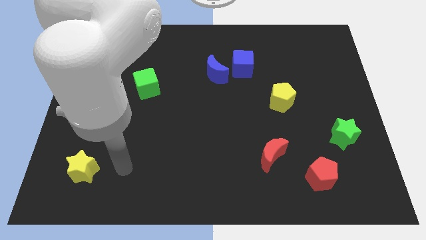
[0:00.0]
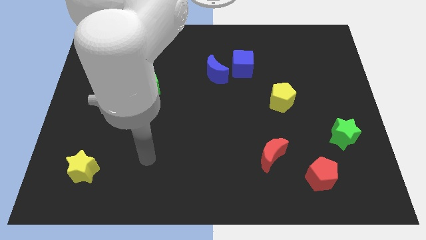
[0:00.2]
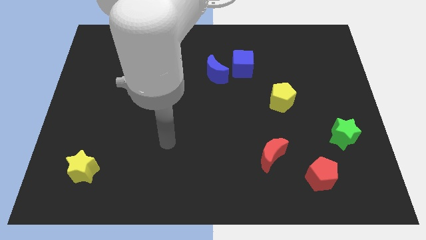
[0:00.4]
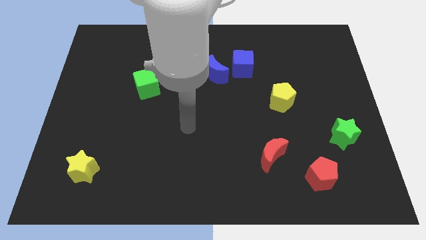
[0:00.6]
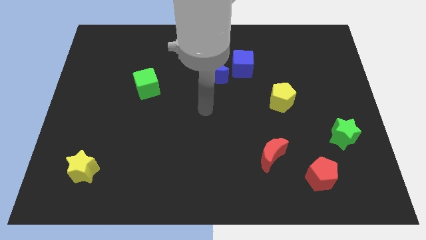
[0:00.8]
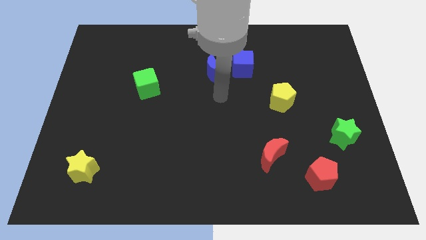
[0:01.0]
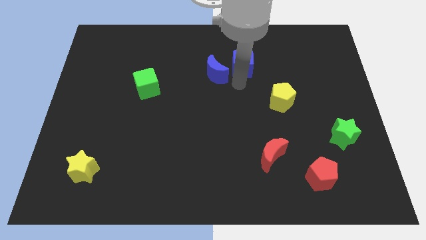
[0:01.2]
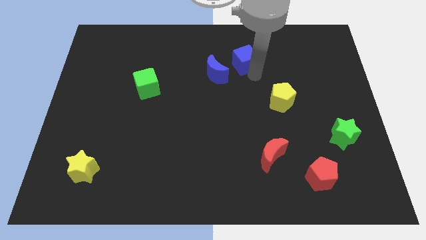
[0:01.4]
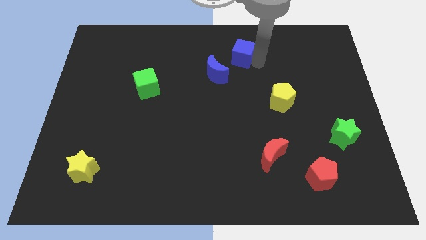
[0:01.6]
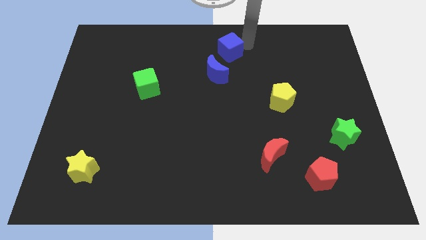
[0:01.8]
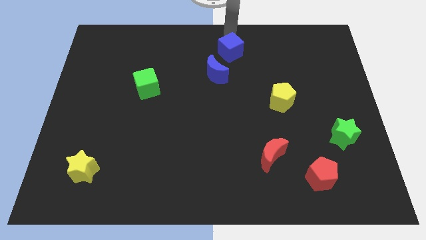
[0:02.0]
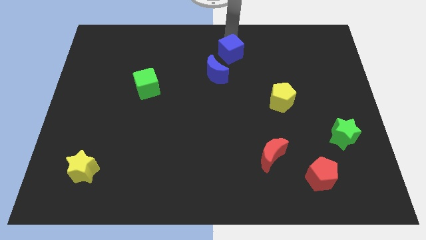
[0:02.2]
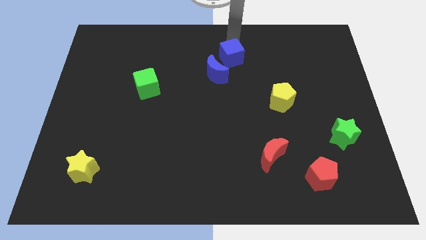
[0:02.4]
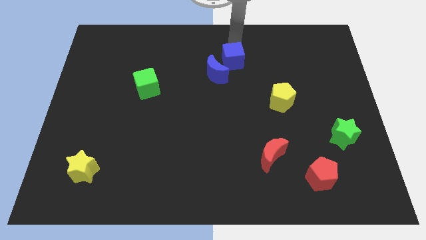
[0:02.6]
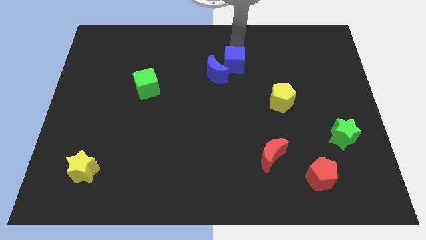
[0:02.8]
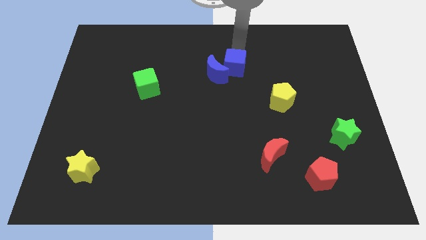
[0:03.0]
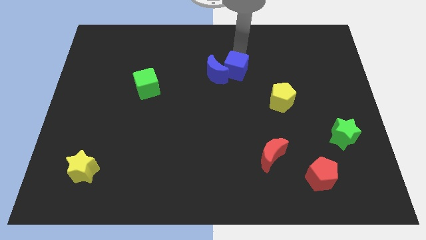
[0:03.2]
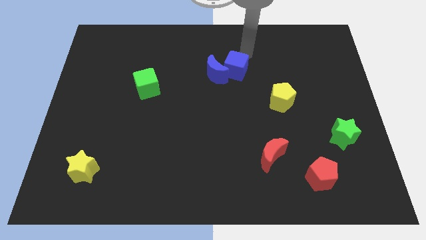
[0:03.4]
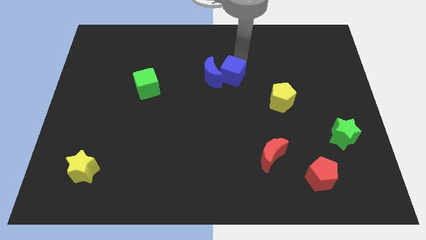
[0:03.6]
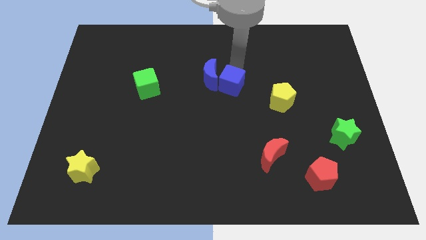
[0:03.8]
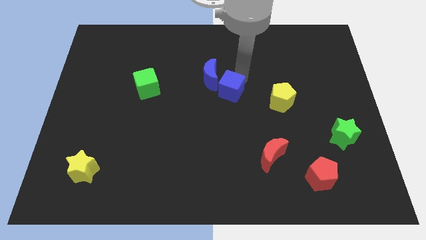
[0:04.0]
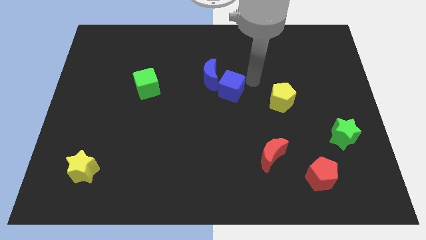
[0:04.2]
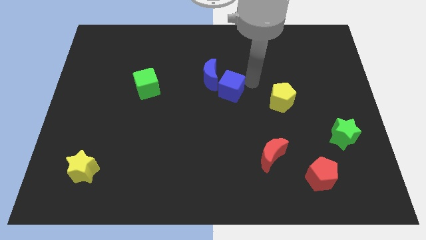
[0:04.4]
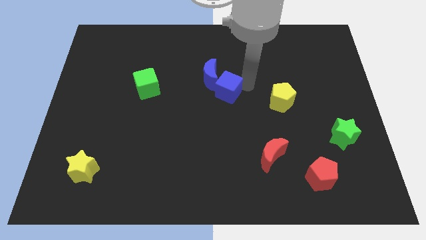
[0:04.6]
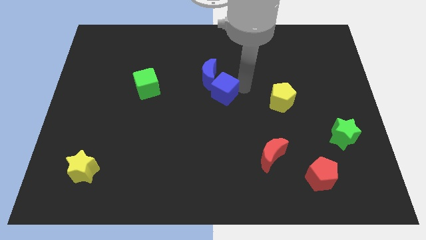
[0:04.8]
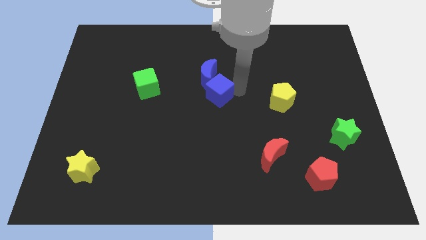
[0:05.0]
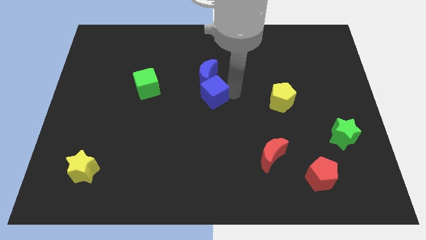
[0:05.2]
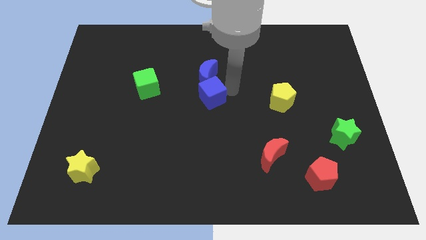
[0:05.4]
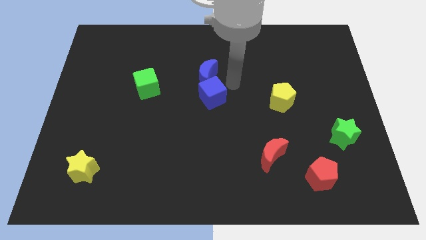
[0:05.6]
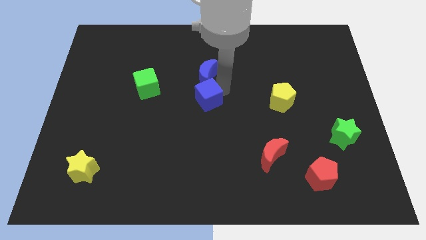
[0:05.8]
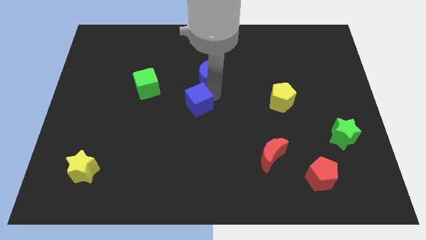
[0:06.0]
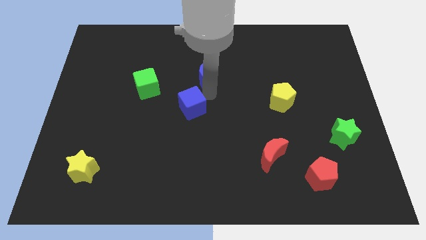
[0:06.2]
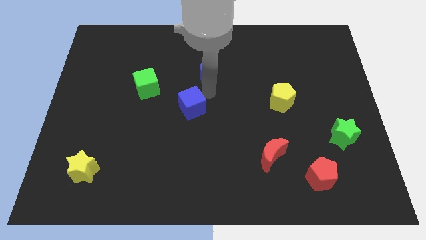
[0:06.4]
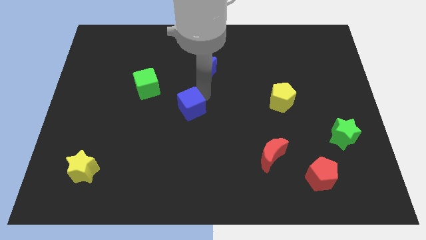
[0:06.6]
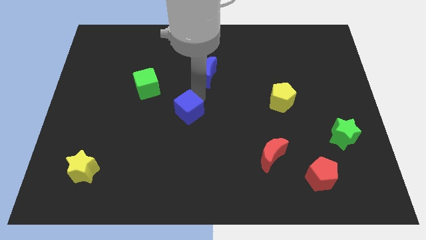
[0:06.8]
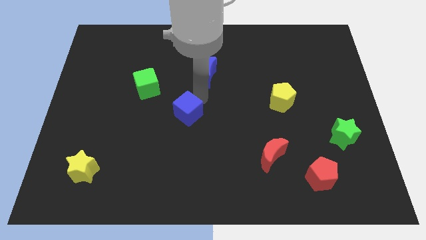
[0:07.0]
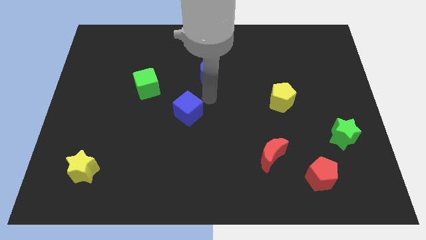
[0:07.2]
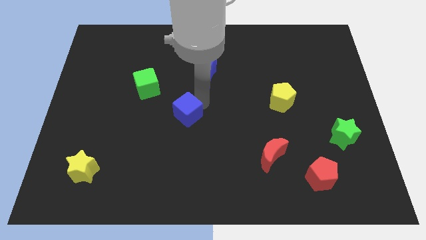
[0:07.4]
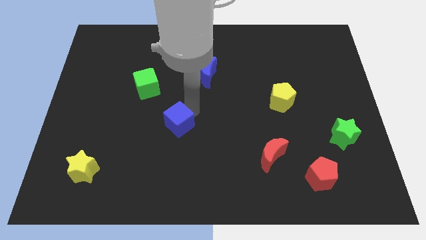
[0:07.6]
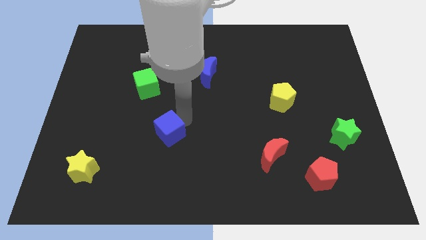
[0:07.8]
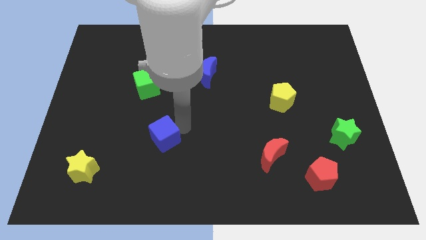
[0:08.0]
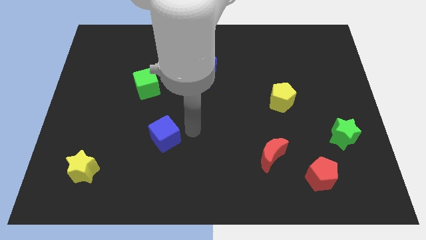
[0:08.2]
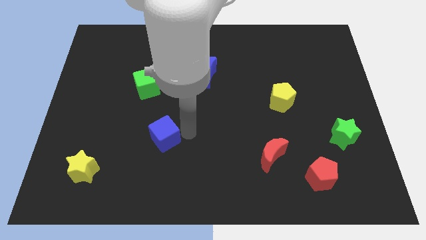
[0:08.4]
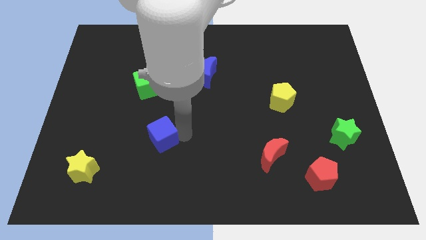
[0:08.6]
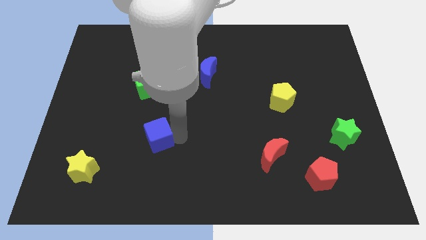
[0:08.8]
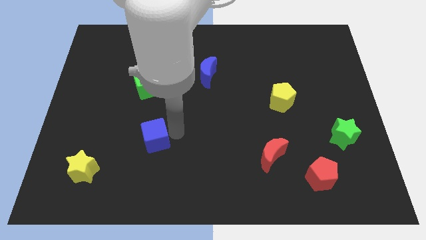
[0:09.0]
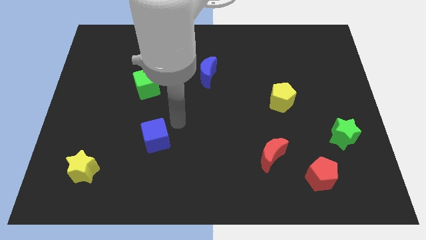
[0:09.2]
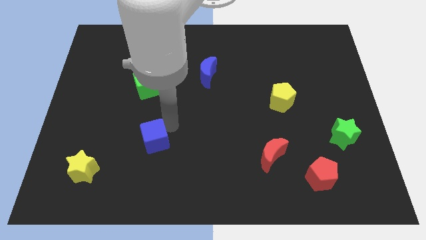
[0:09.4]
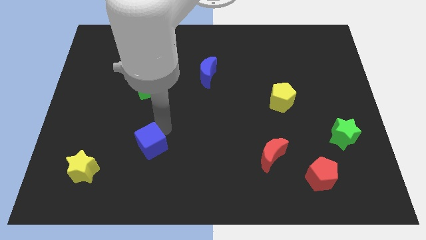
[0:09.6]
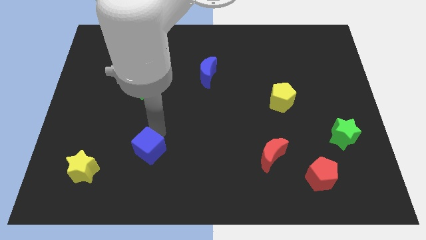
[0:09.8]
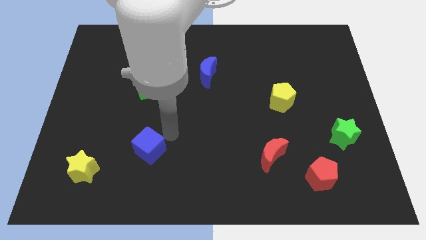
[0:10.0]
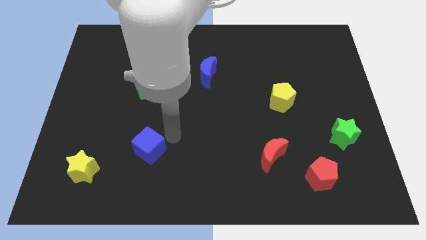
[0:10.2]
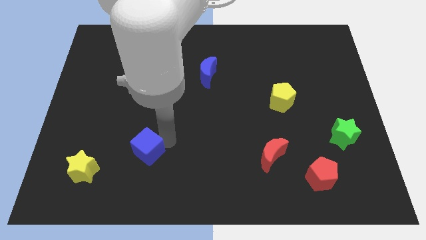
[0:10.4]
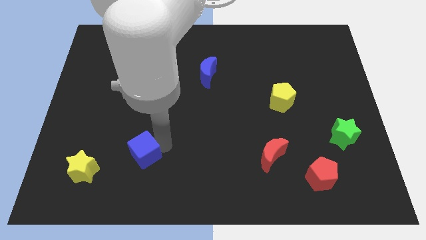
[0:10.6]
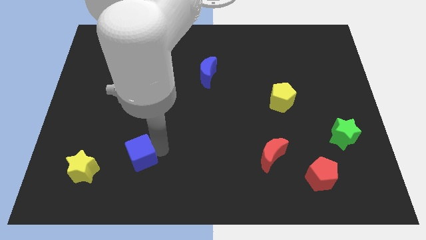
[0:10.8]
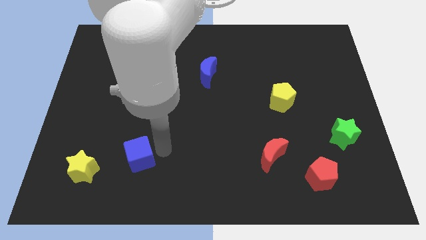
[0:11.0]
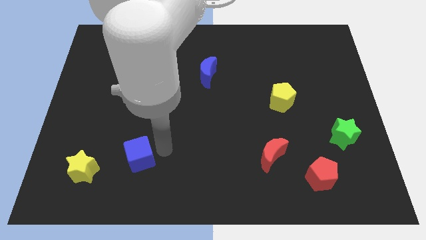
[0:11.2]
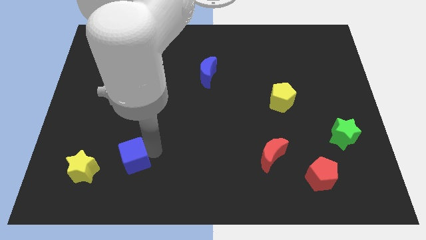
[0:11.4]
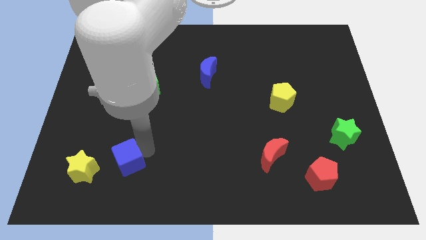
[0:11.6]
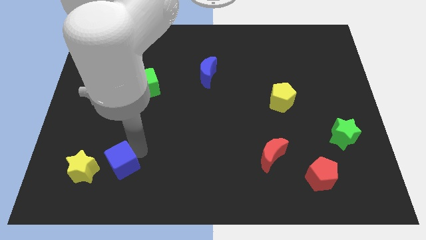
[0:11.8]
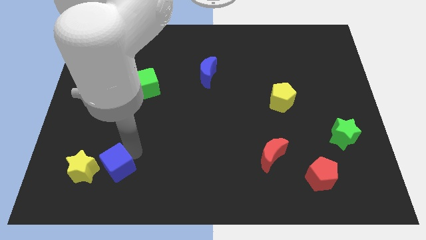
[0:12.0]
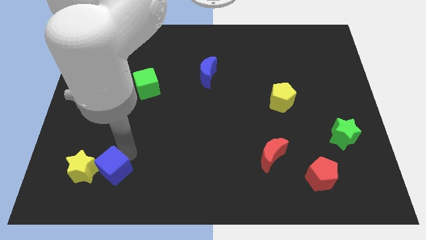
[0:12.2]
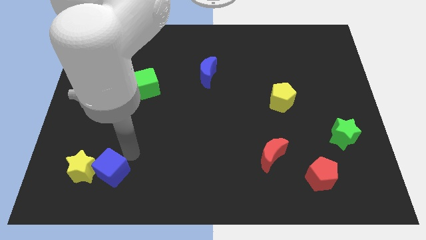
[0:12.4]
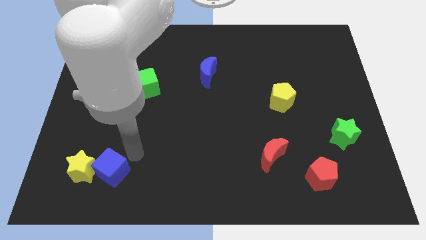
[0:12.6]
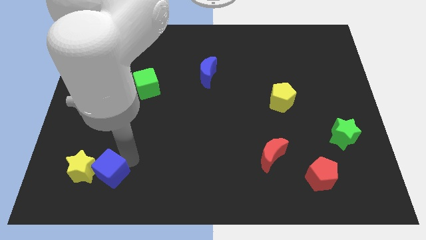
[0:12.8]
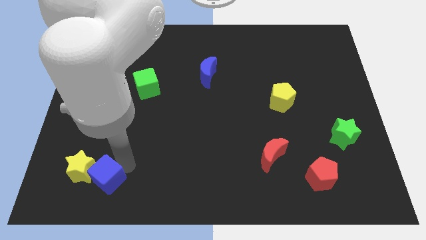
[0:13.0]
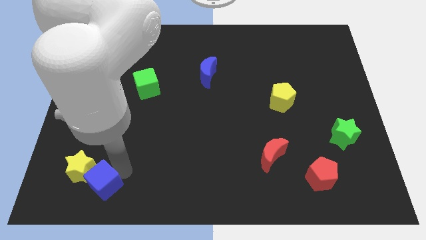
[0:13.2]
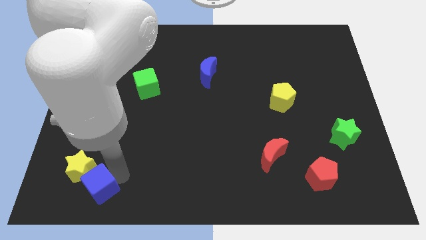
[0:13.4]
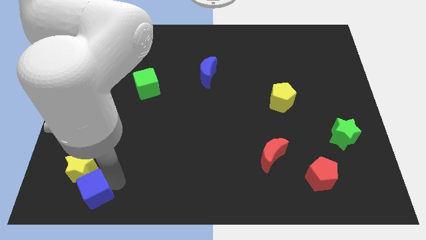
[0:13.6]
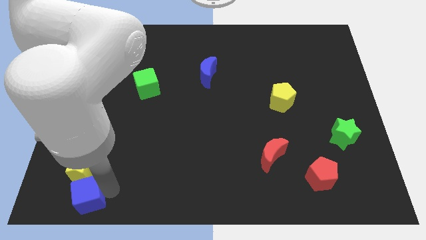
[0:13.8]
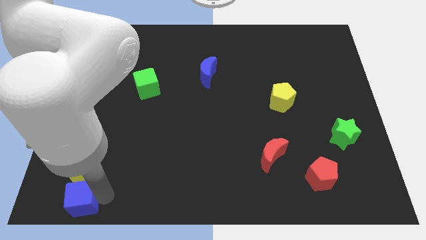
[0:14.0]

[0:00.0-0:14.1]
slide the blue cube to the bottom left corner
